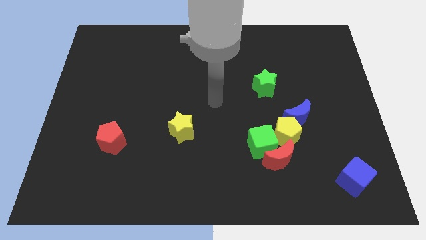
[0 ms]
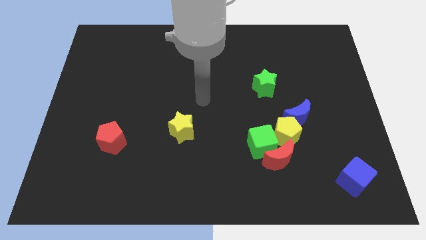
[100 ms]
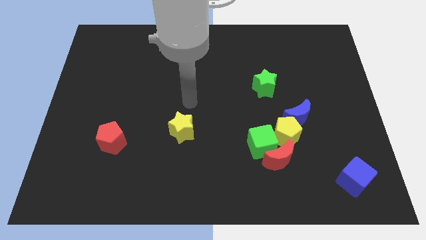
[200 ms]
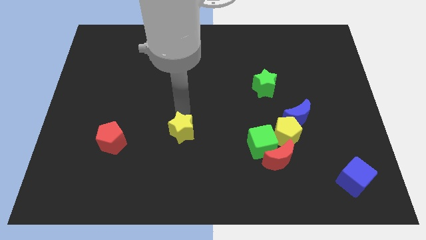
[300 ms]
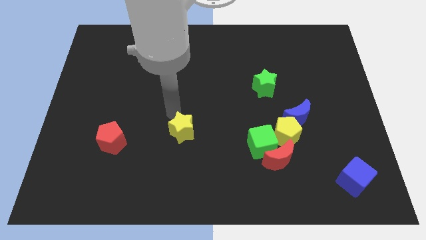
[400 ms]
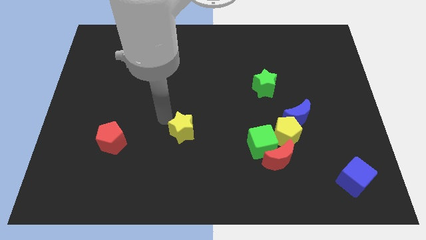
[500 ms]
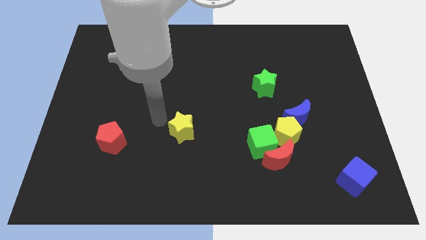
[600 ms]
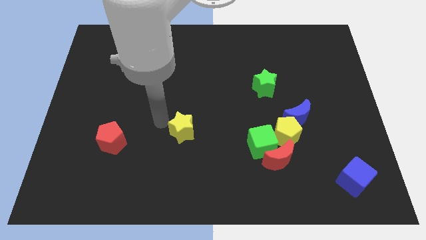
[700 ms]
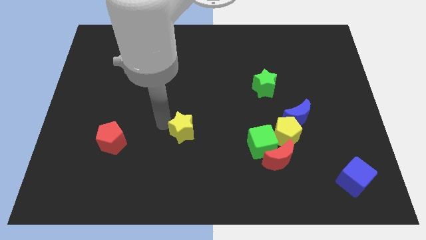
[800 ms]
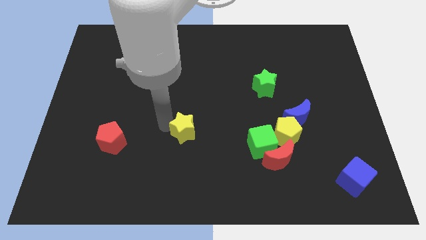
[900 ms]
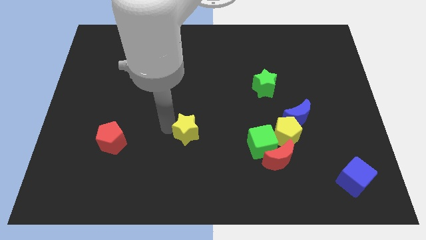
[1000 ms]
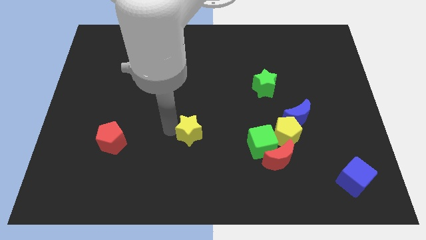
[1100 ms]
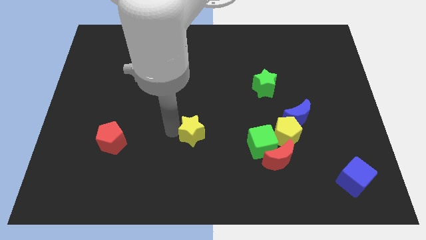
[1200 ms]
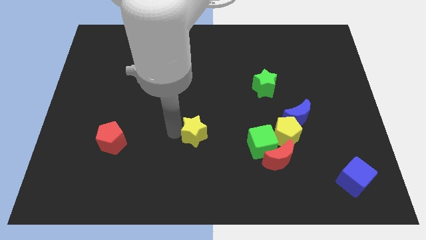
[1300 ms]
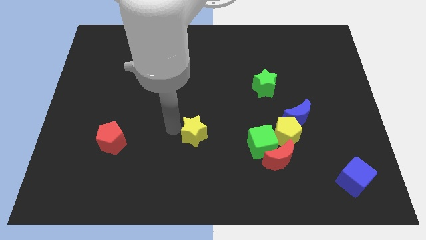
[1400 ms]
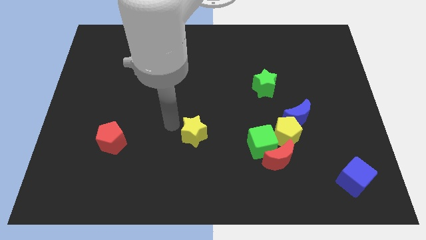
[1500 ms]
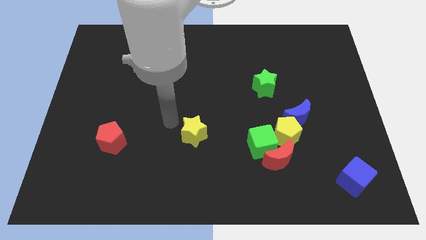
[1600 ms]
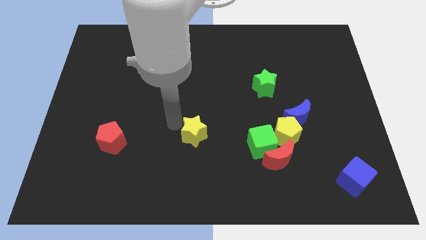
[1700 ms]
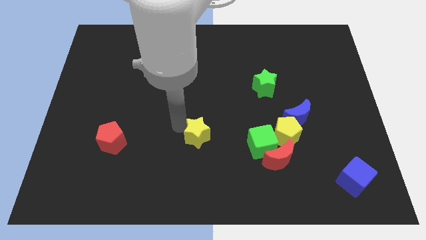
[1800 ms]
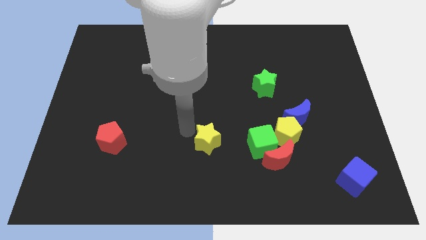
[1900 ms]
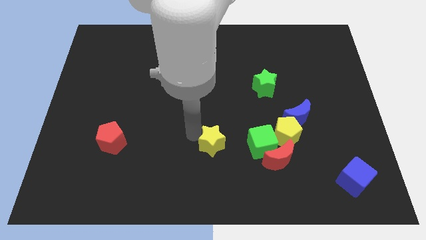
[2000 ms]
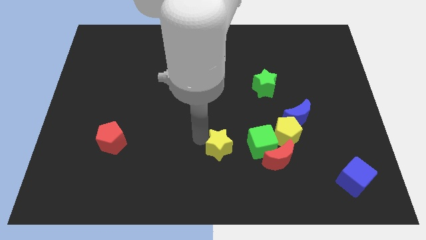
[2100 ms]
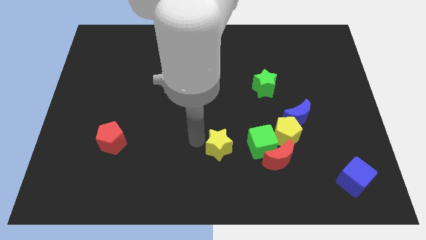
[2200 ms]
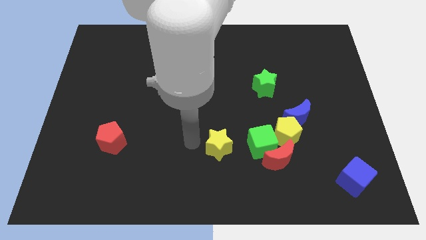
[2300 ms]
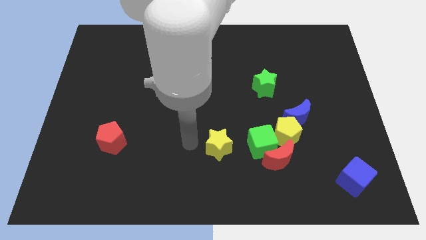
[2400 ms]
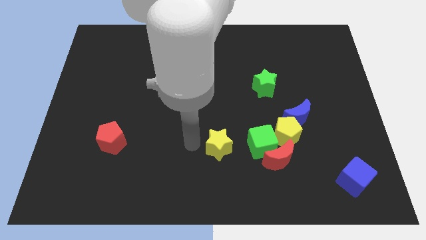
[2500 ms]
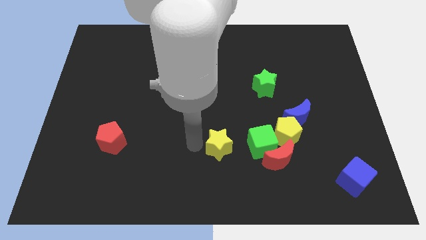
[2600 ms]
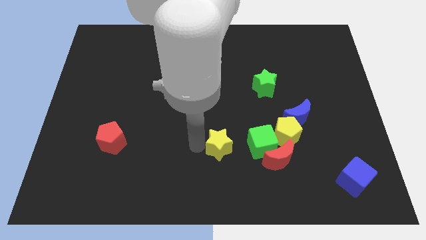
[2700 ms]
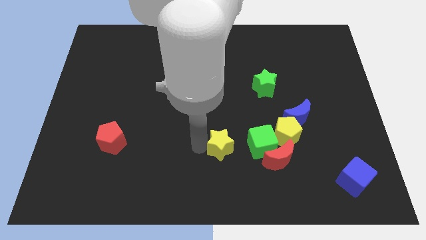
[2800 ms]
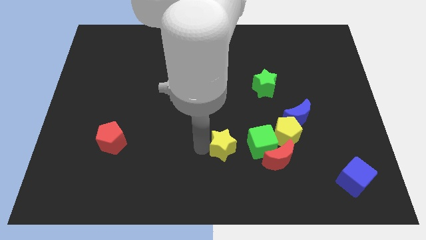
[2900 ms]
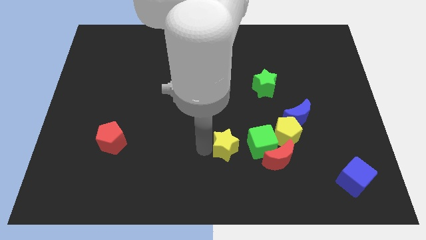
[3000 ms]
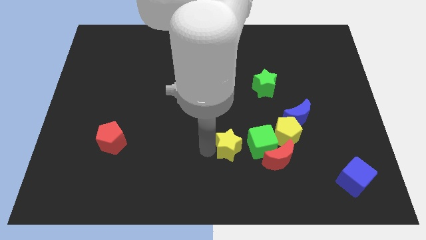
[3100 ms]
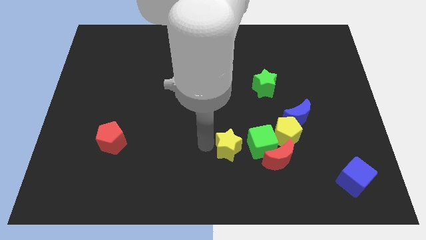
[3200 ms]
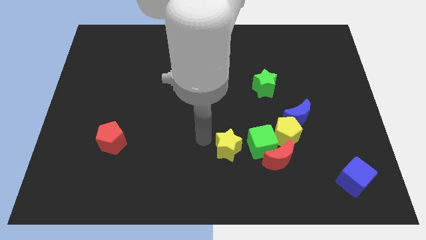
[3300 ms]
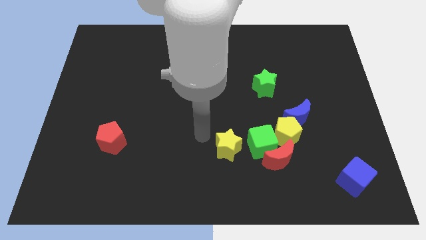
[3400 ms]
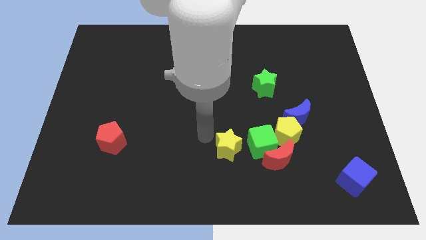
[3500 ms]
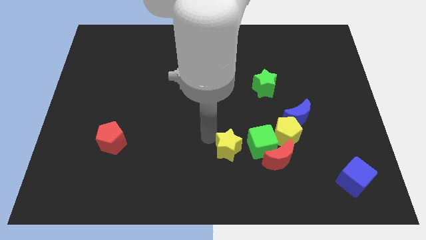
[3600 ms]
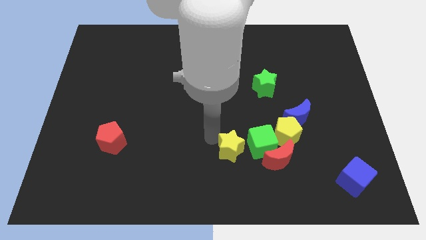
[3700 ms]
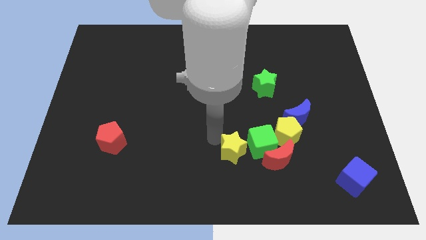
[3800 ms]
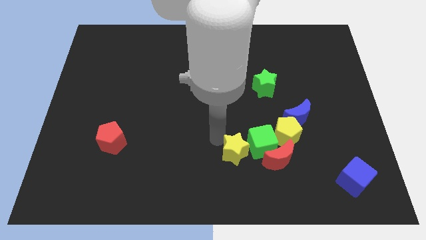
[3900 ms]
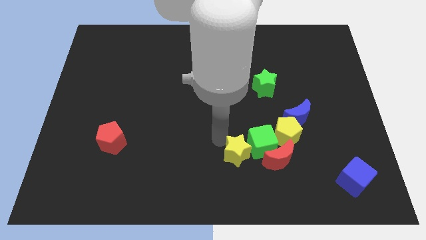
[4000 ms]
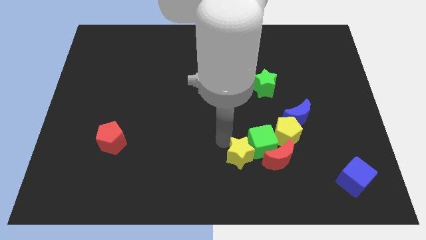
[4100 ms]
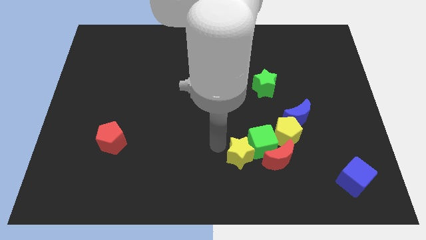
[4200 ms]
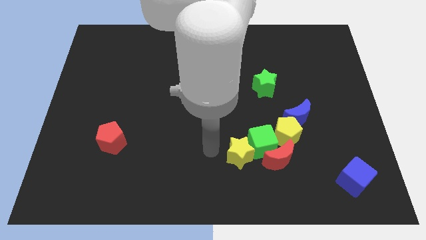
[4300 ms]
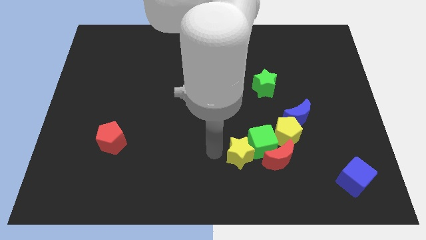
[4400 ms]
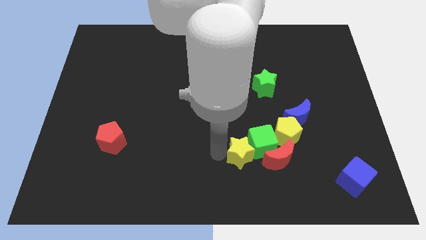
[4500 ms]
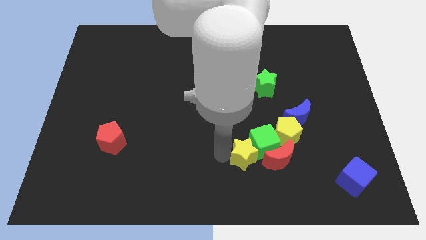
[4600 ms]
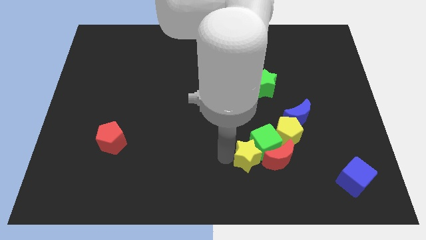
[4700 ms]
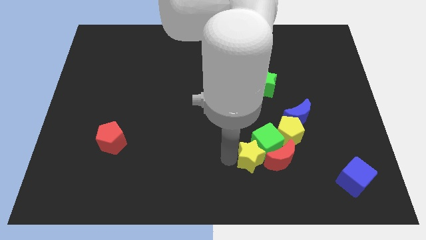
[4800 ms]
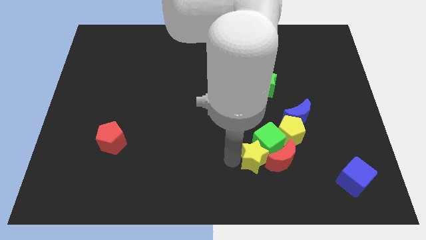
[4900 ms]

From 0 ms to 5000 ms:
put the yellow star close to the red moon

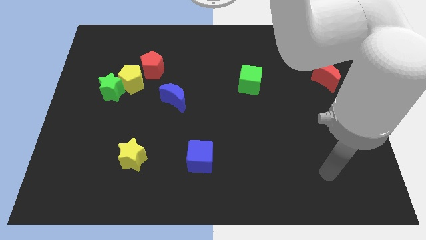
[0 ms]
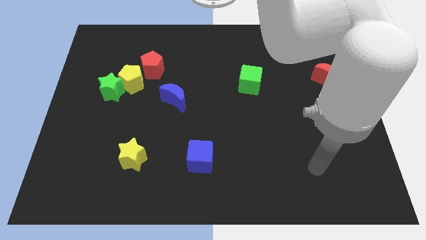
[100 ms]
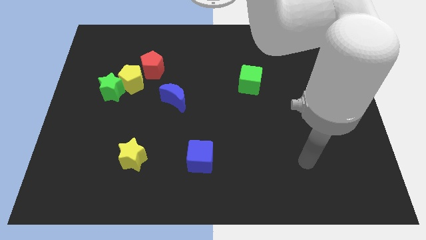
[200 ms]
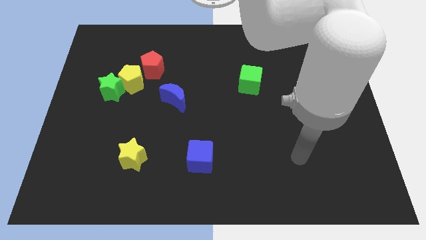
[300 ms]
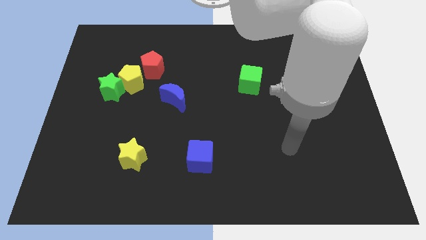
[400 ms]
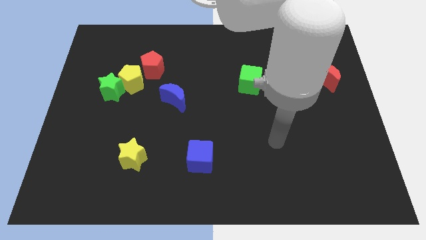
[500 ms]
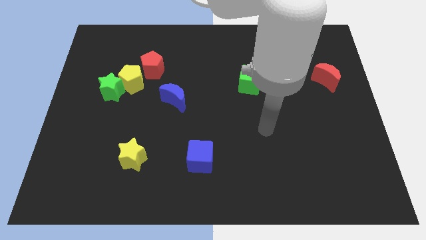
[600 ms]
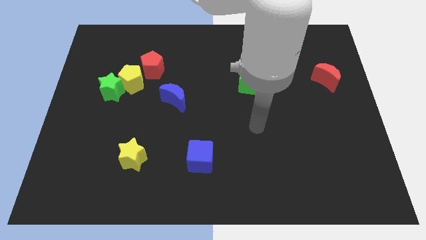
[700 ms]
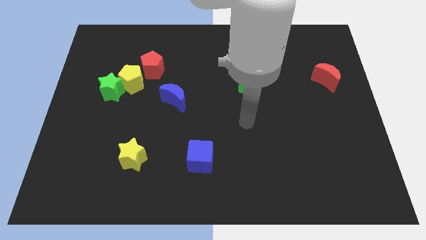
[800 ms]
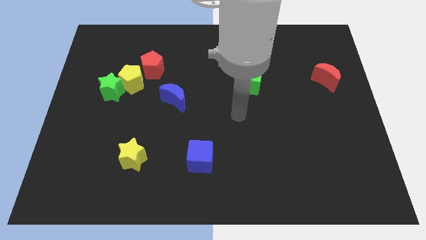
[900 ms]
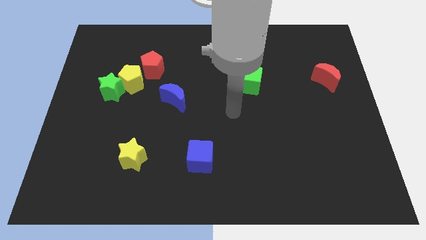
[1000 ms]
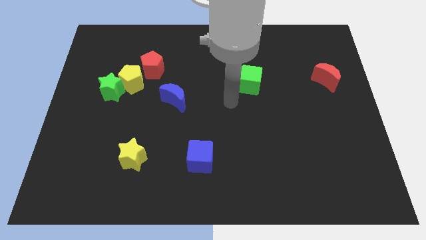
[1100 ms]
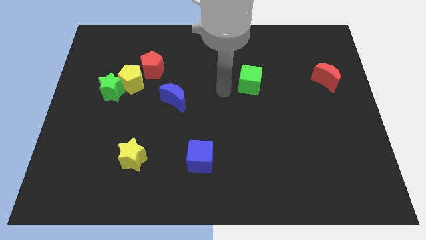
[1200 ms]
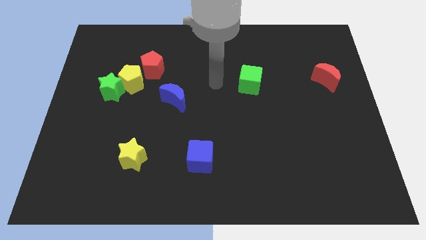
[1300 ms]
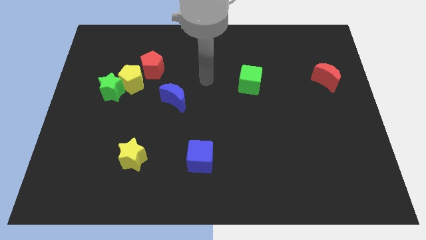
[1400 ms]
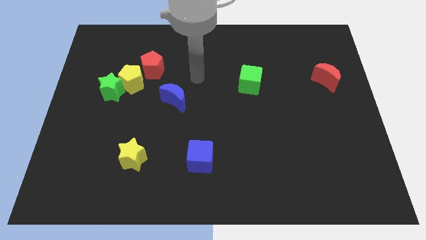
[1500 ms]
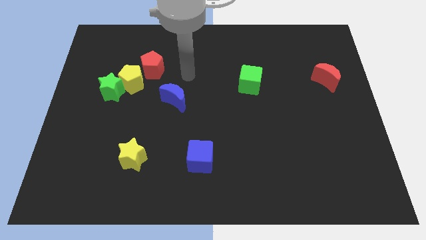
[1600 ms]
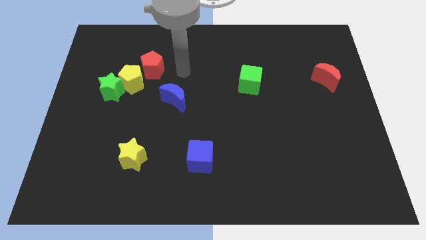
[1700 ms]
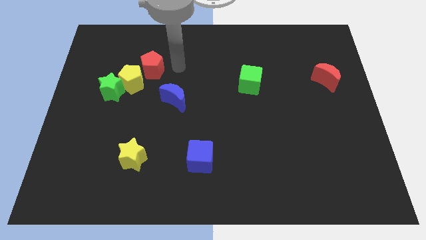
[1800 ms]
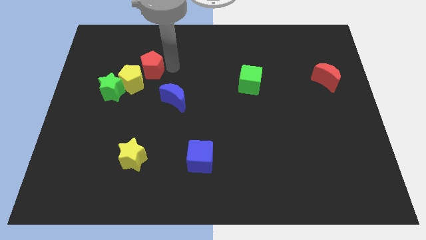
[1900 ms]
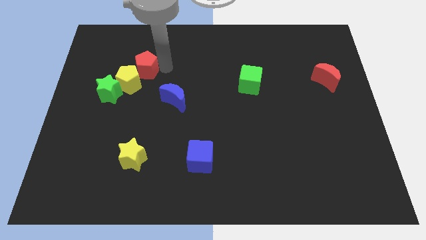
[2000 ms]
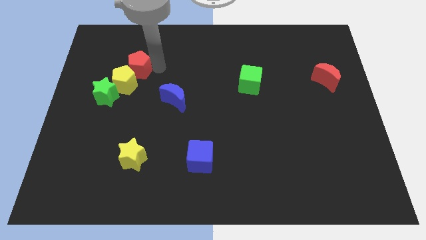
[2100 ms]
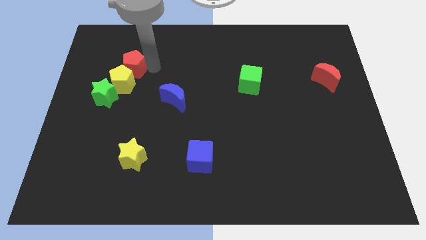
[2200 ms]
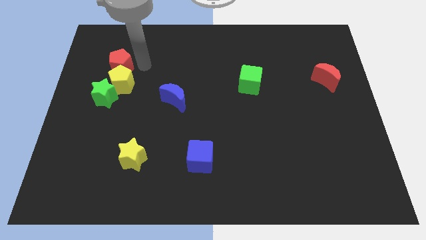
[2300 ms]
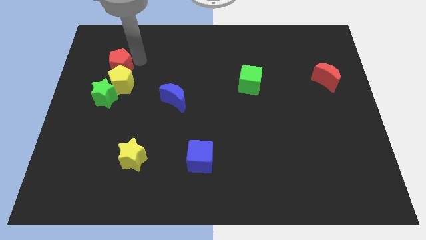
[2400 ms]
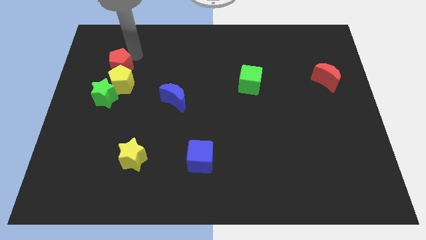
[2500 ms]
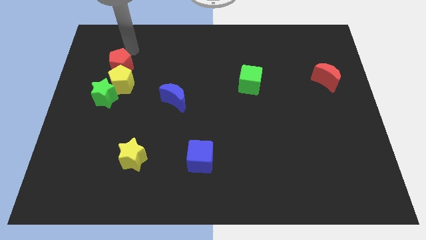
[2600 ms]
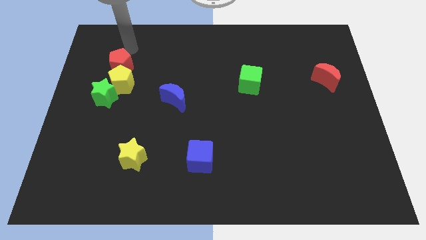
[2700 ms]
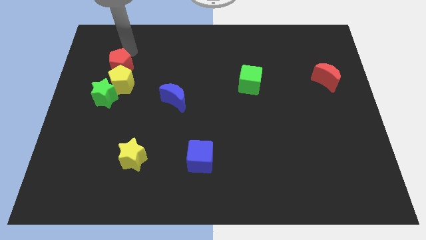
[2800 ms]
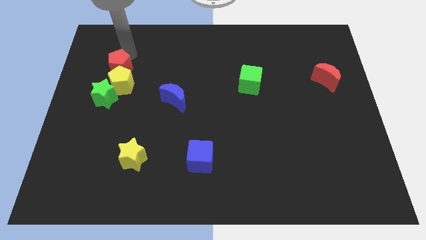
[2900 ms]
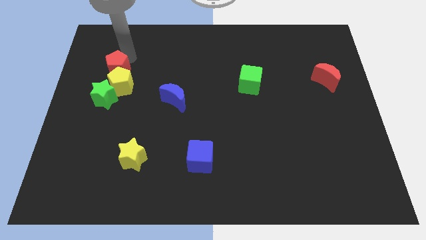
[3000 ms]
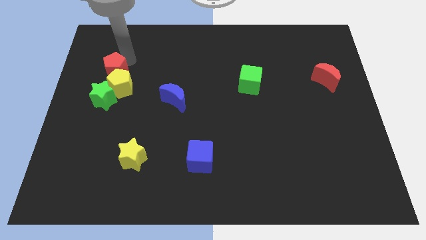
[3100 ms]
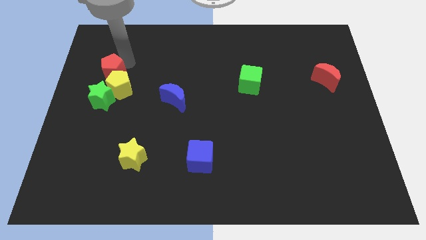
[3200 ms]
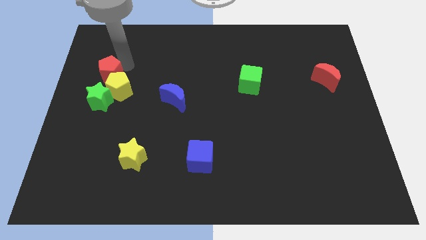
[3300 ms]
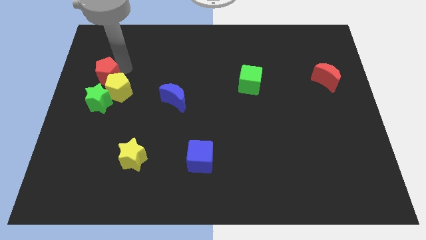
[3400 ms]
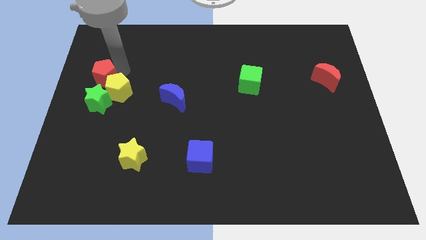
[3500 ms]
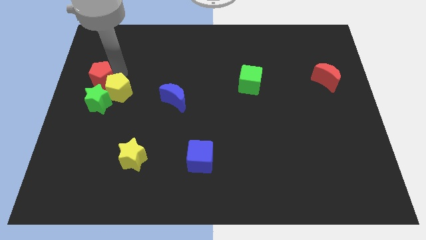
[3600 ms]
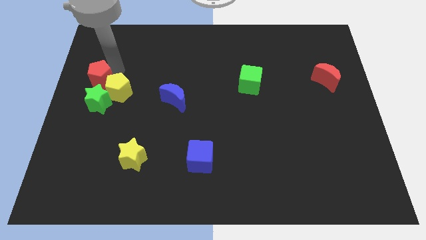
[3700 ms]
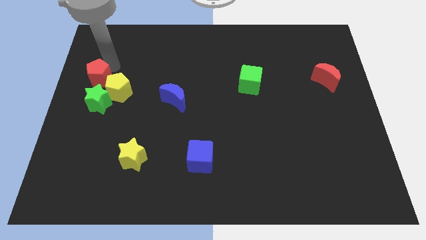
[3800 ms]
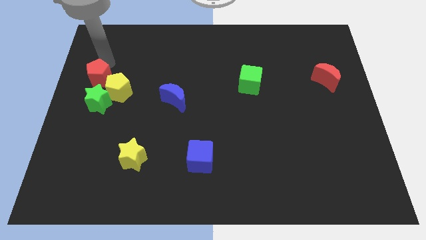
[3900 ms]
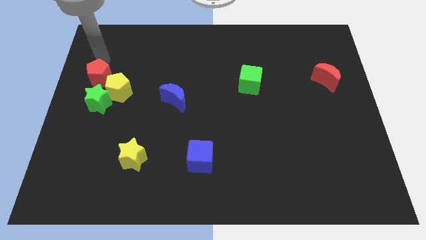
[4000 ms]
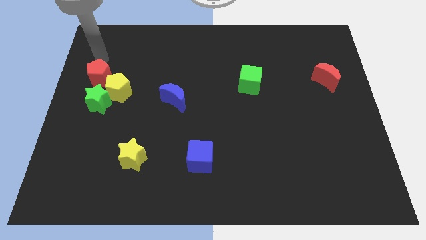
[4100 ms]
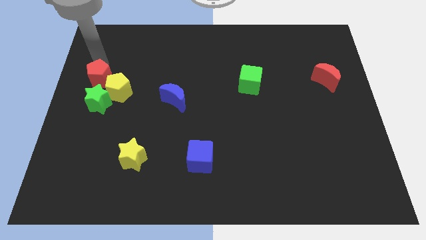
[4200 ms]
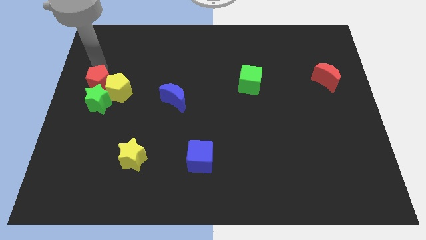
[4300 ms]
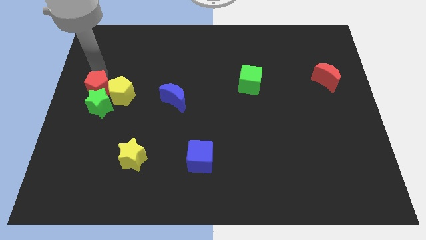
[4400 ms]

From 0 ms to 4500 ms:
move the red pentagon close to the green star
